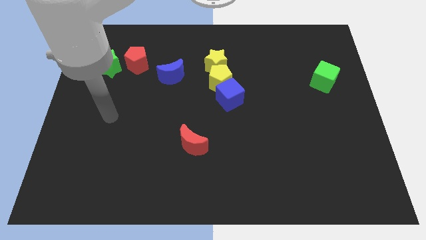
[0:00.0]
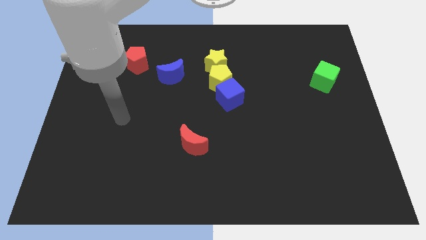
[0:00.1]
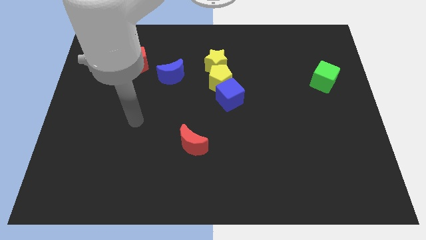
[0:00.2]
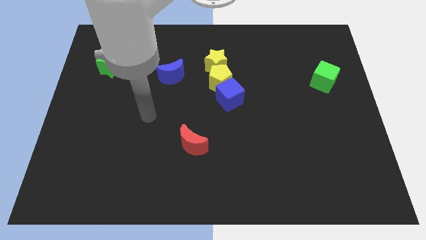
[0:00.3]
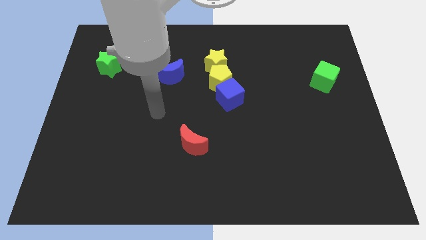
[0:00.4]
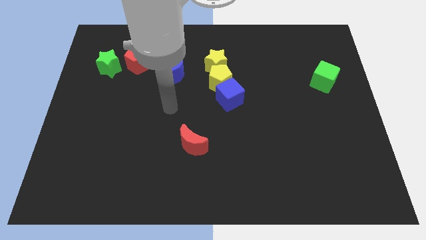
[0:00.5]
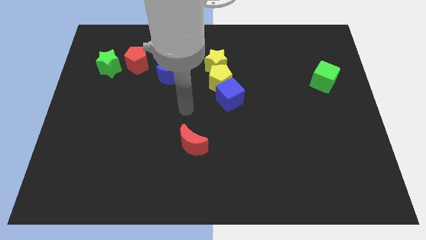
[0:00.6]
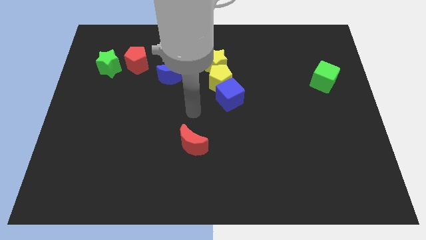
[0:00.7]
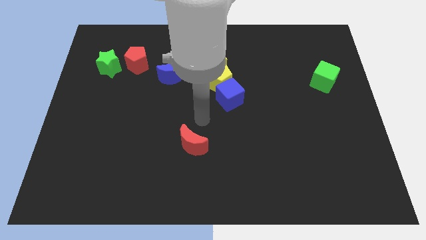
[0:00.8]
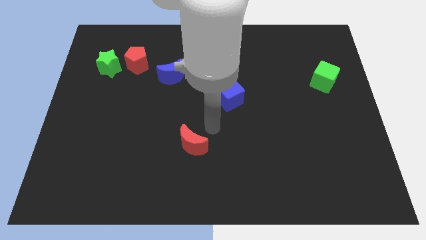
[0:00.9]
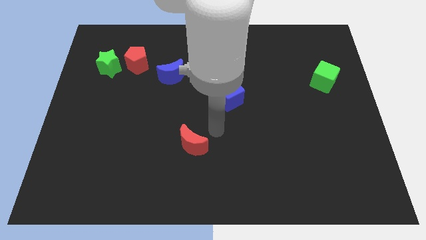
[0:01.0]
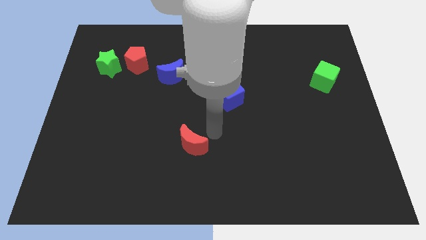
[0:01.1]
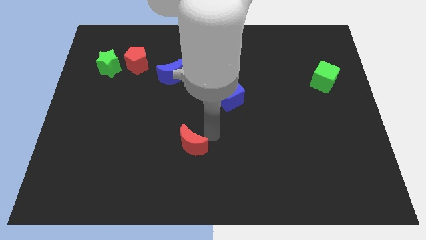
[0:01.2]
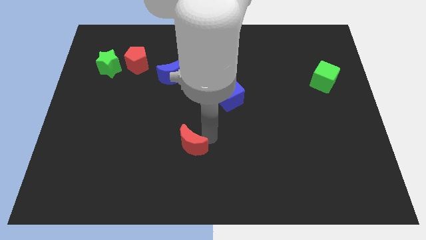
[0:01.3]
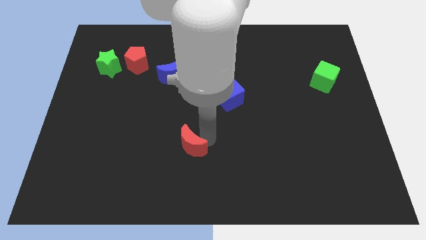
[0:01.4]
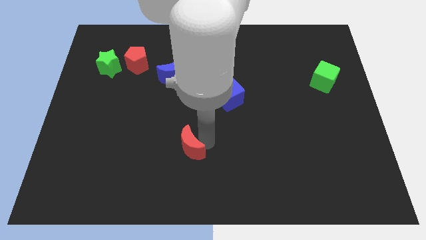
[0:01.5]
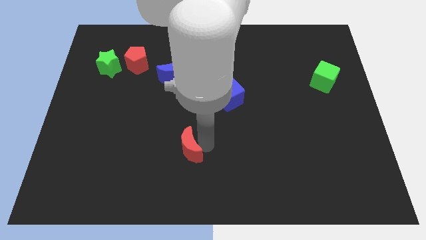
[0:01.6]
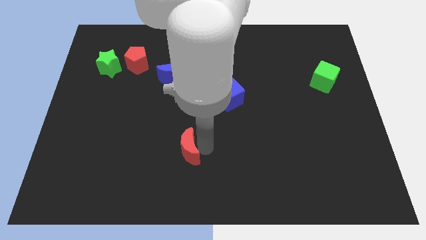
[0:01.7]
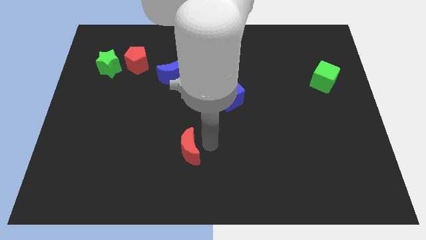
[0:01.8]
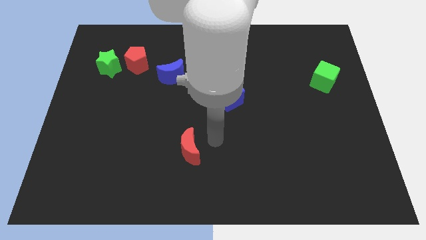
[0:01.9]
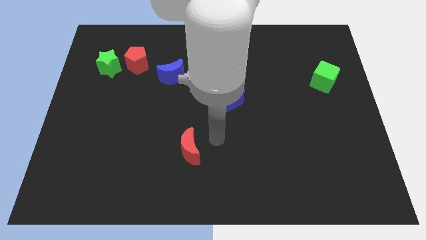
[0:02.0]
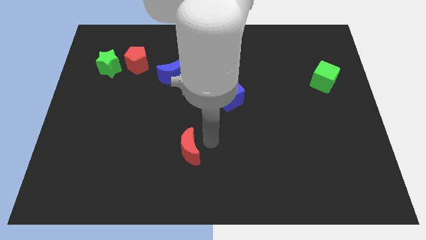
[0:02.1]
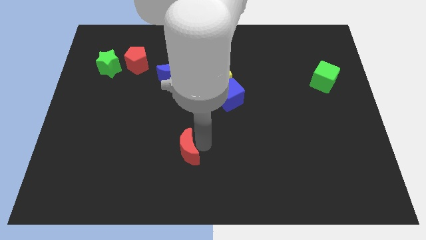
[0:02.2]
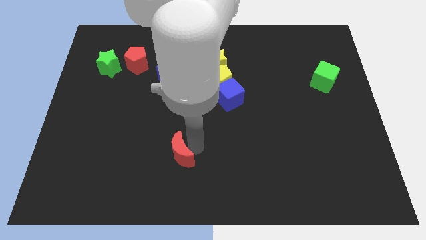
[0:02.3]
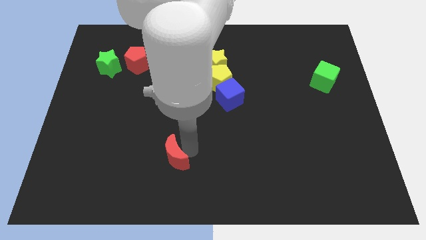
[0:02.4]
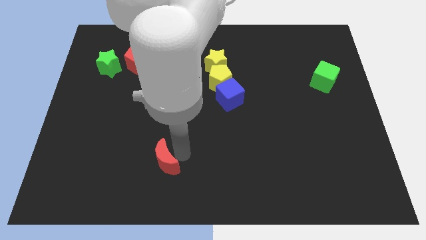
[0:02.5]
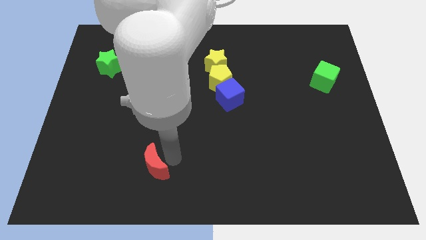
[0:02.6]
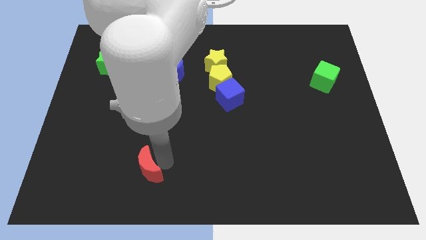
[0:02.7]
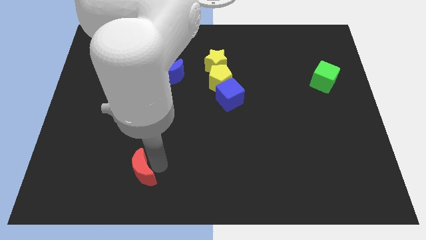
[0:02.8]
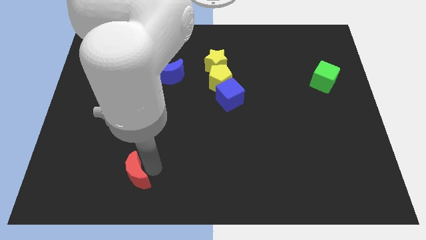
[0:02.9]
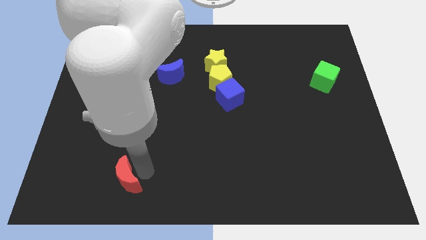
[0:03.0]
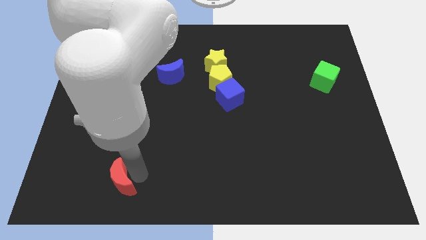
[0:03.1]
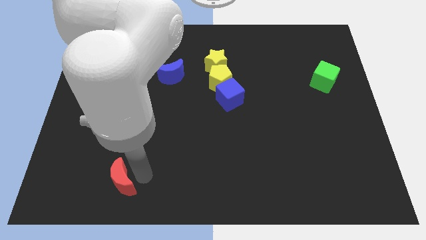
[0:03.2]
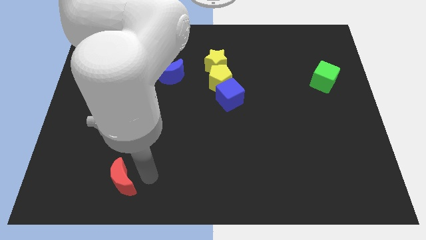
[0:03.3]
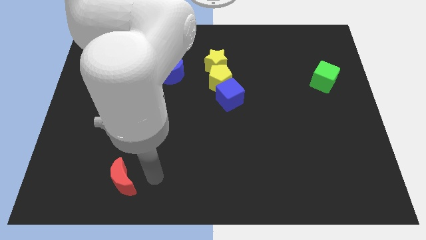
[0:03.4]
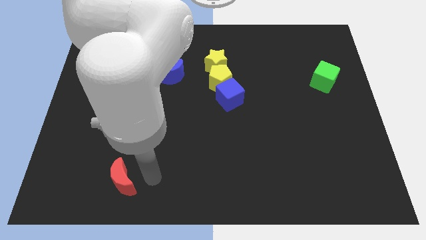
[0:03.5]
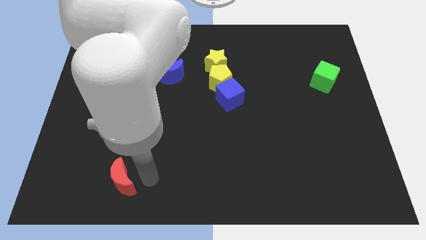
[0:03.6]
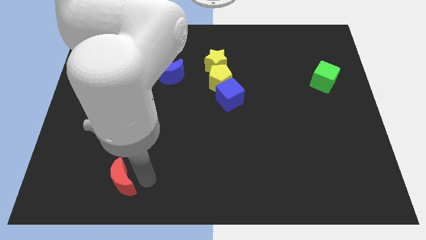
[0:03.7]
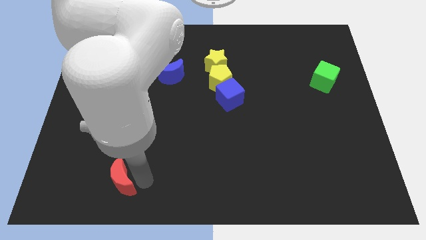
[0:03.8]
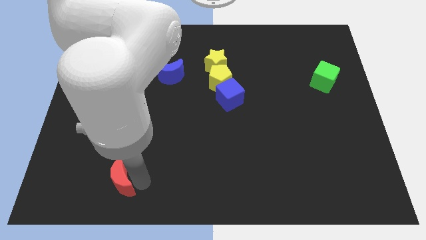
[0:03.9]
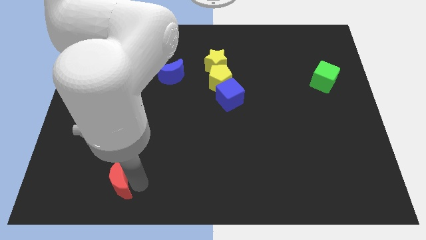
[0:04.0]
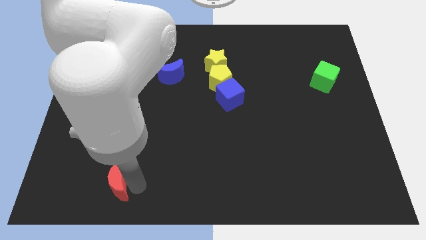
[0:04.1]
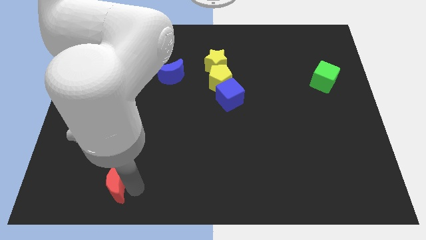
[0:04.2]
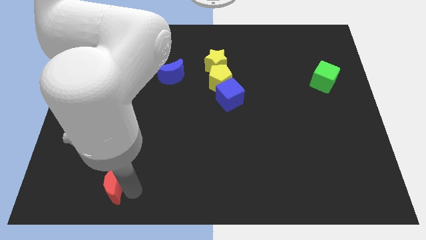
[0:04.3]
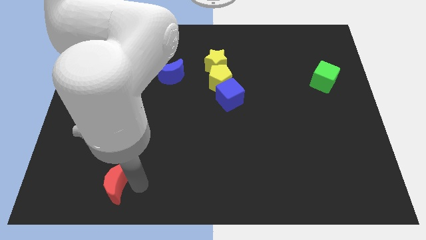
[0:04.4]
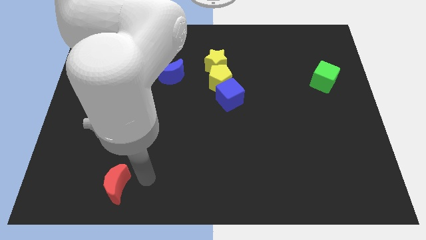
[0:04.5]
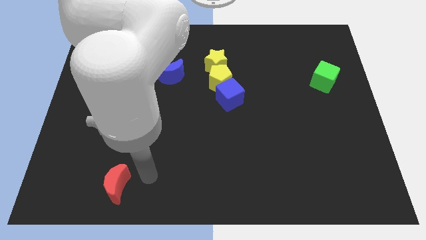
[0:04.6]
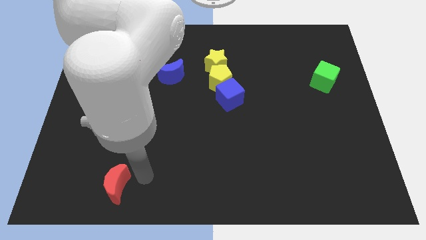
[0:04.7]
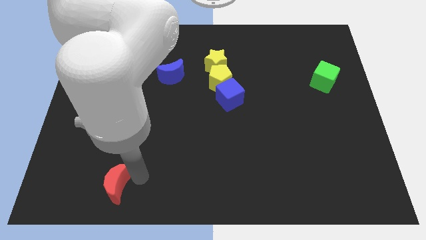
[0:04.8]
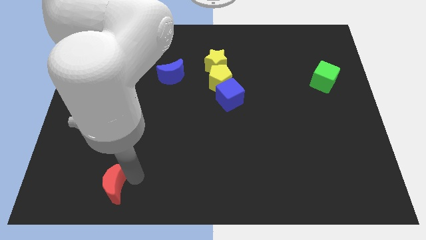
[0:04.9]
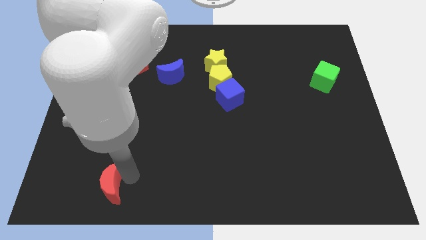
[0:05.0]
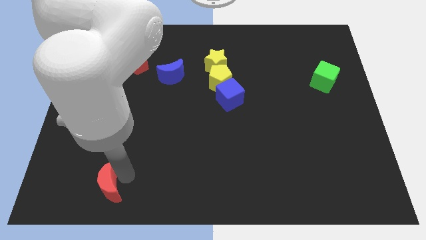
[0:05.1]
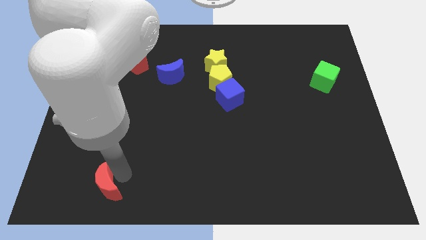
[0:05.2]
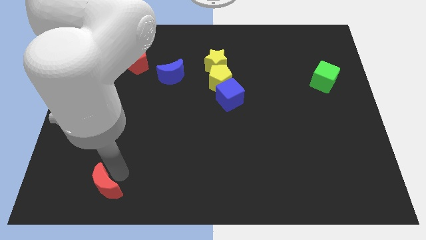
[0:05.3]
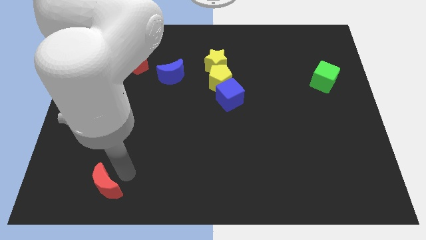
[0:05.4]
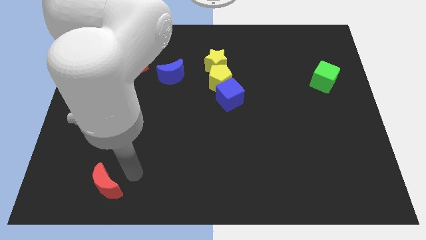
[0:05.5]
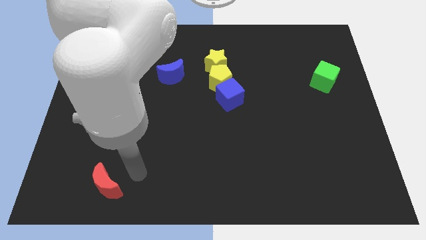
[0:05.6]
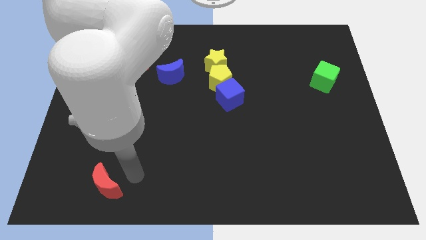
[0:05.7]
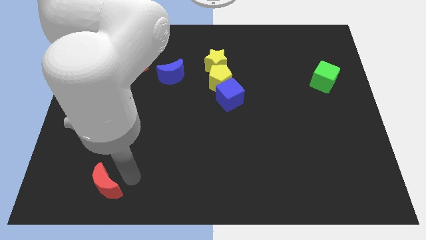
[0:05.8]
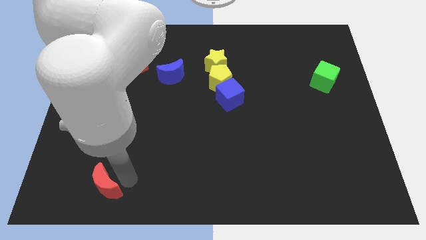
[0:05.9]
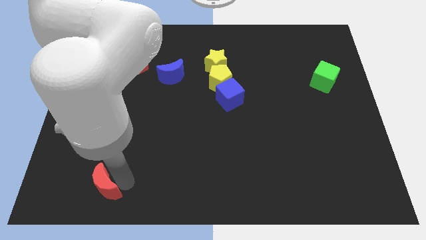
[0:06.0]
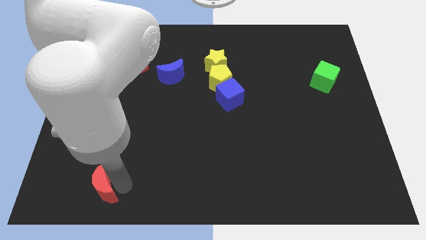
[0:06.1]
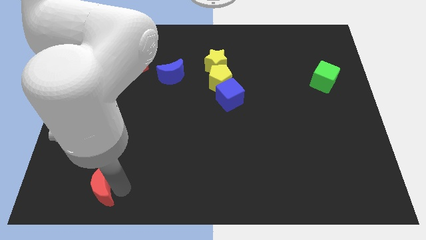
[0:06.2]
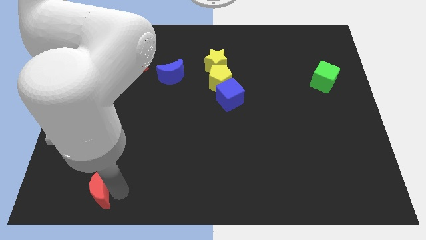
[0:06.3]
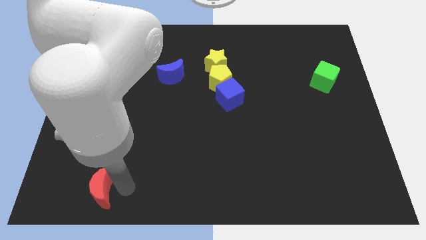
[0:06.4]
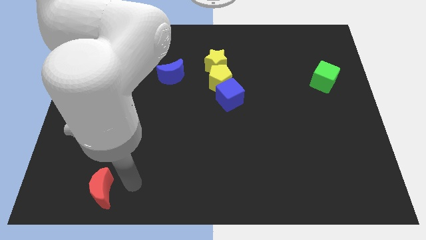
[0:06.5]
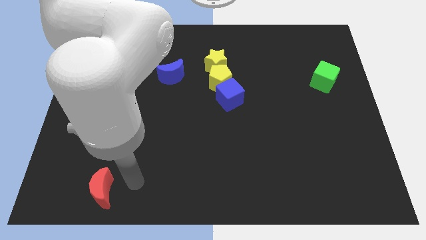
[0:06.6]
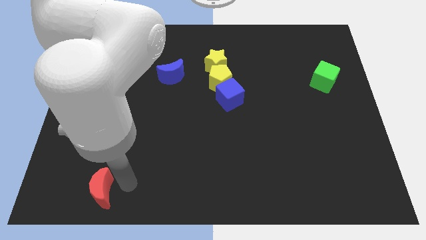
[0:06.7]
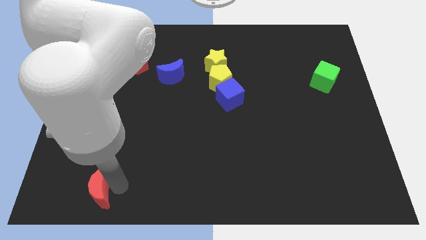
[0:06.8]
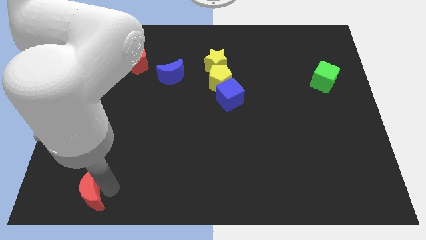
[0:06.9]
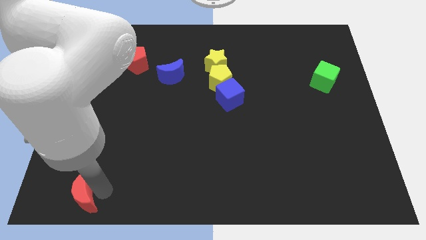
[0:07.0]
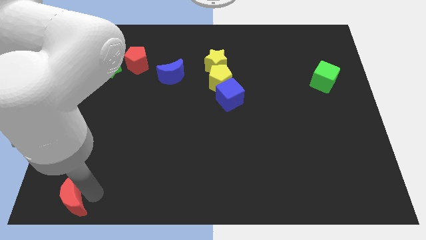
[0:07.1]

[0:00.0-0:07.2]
move the red moon to the lower left corner
